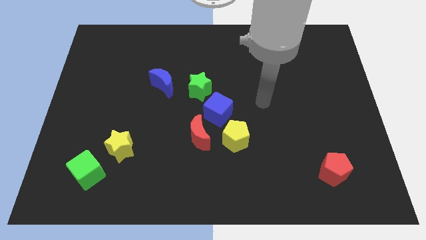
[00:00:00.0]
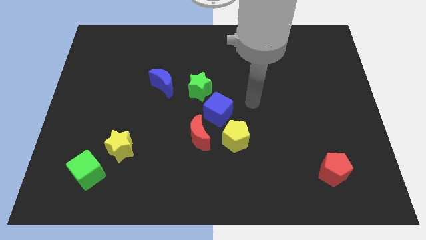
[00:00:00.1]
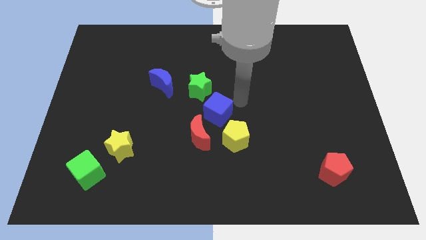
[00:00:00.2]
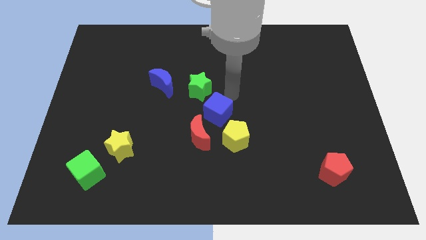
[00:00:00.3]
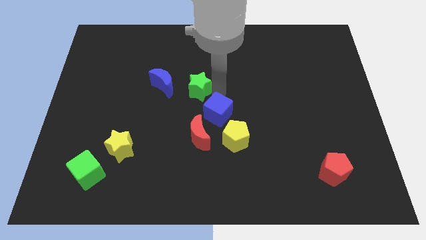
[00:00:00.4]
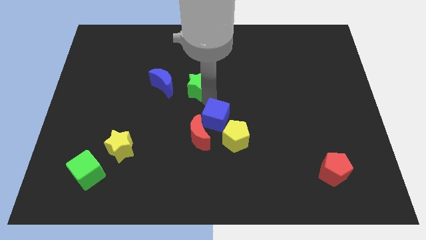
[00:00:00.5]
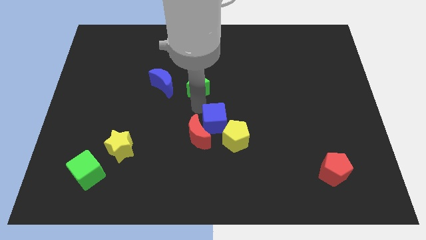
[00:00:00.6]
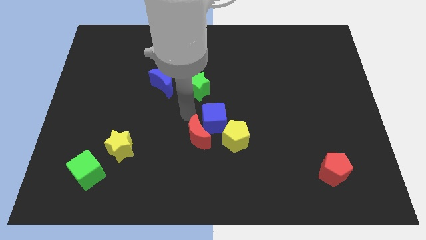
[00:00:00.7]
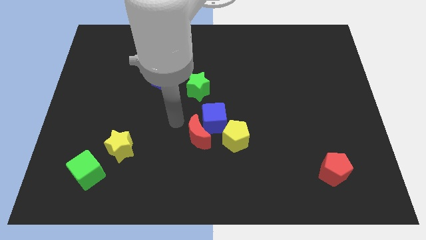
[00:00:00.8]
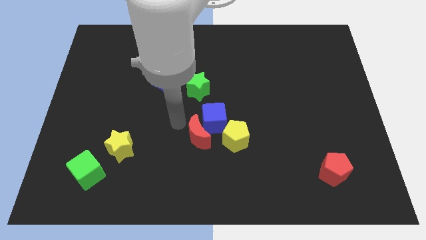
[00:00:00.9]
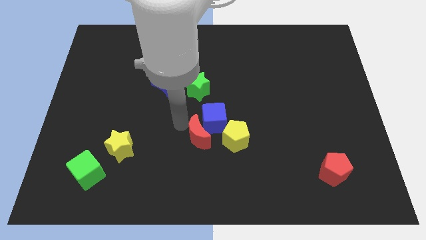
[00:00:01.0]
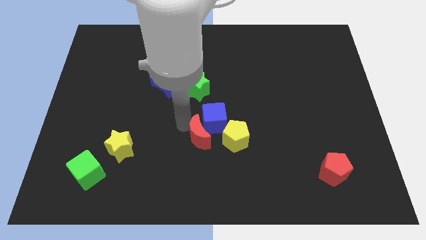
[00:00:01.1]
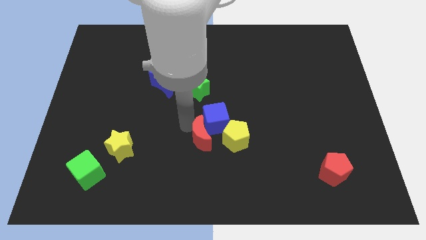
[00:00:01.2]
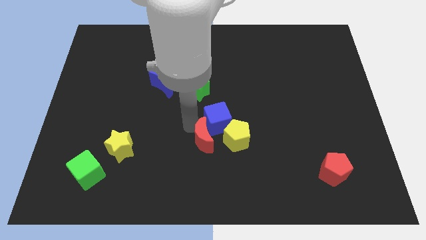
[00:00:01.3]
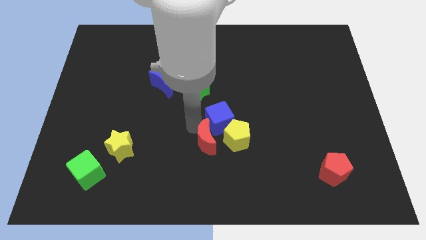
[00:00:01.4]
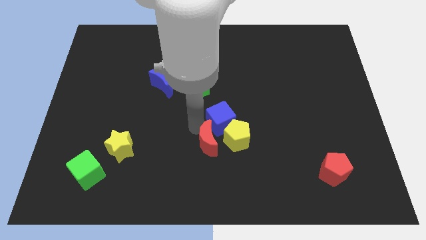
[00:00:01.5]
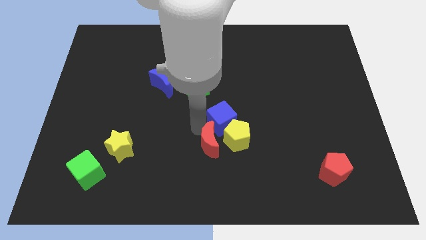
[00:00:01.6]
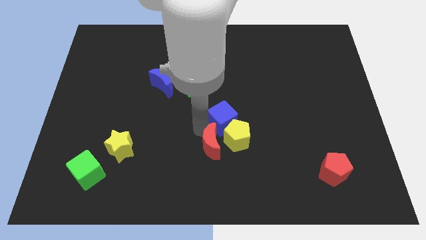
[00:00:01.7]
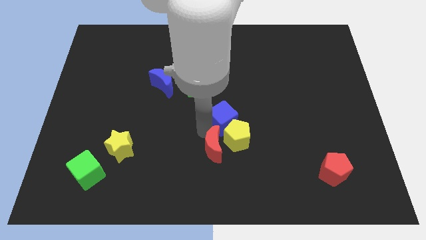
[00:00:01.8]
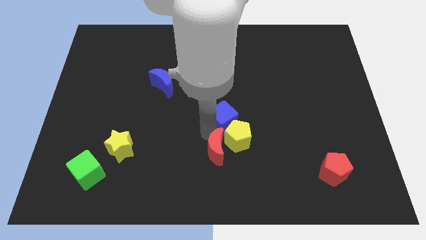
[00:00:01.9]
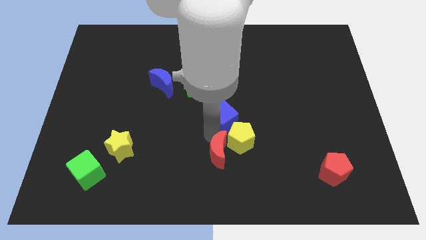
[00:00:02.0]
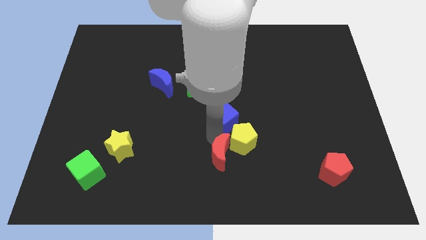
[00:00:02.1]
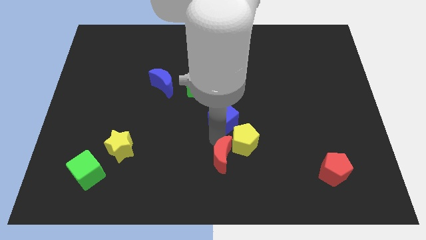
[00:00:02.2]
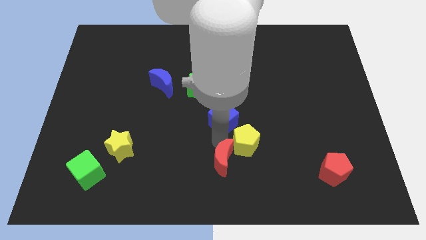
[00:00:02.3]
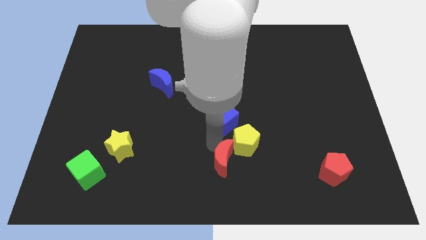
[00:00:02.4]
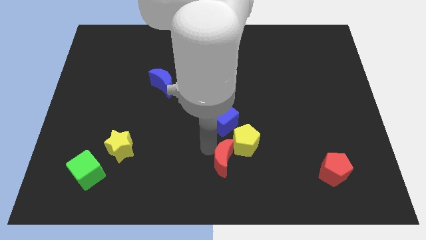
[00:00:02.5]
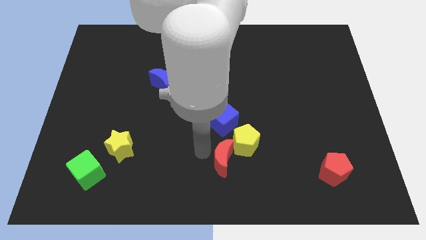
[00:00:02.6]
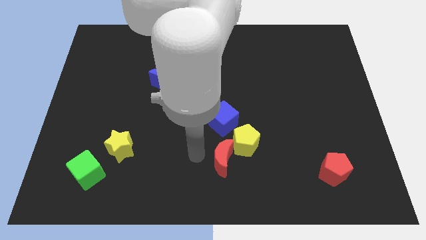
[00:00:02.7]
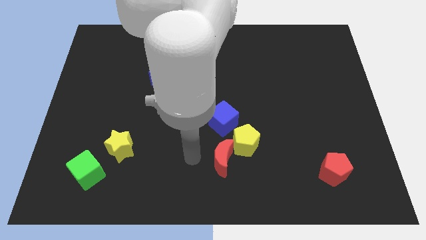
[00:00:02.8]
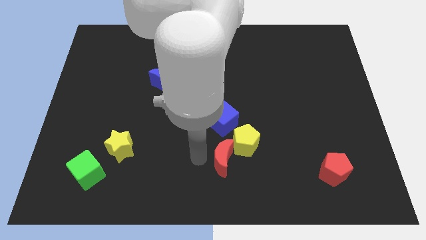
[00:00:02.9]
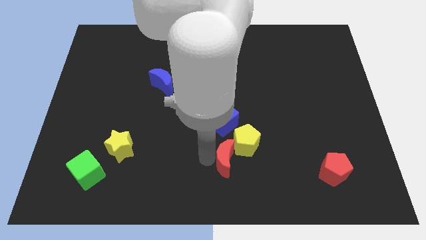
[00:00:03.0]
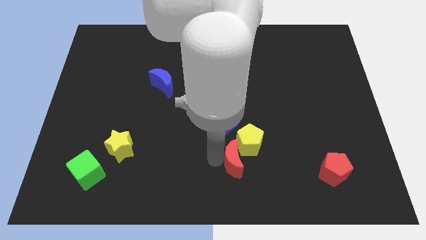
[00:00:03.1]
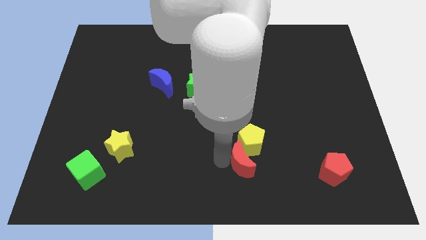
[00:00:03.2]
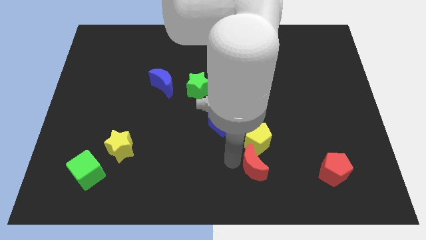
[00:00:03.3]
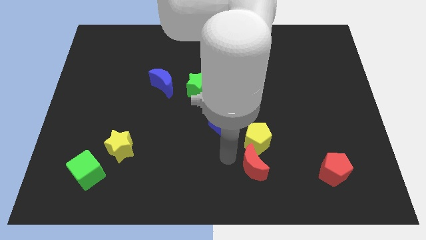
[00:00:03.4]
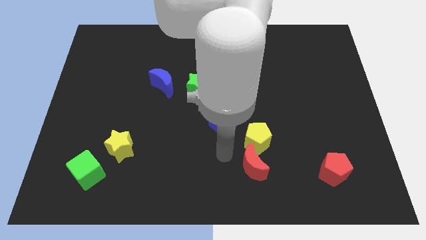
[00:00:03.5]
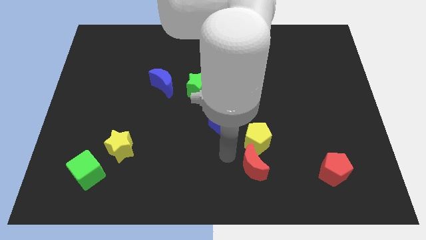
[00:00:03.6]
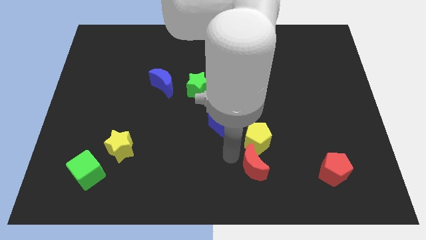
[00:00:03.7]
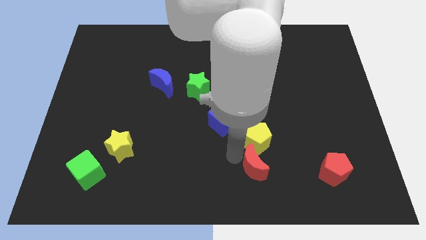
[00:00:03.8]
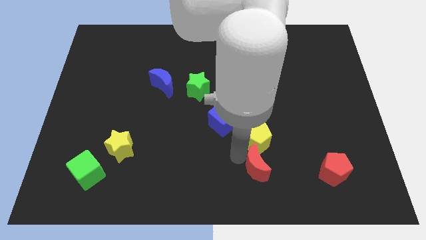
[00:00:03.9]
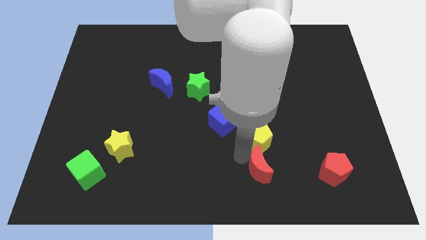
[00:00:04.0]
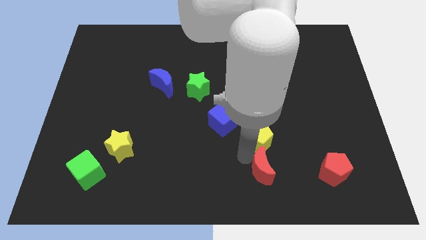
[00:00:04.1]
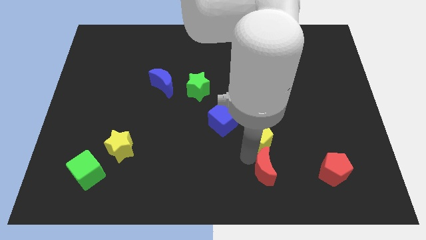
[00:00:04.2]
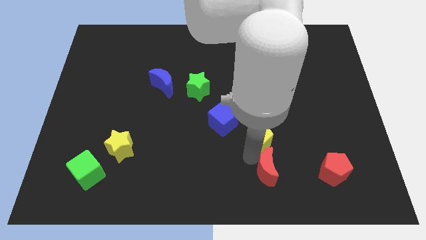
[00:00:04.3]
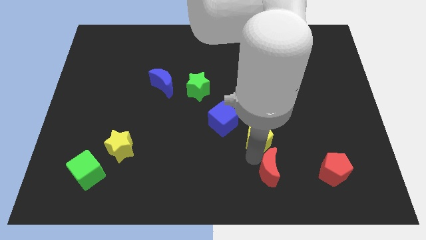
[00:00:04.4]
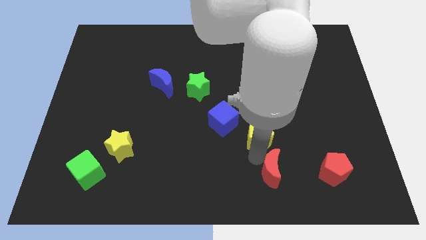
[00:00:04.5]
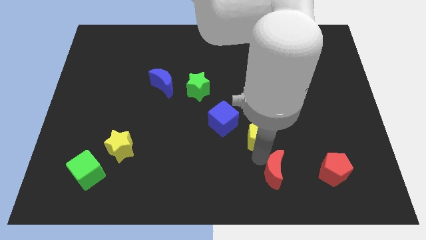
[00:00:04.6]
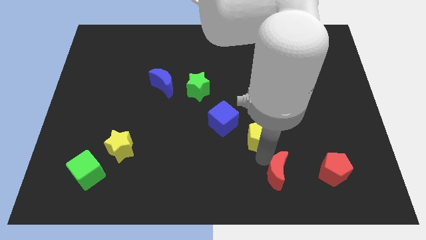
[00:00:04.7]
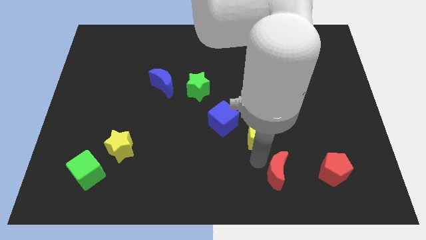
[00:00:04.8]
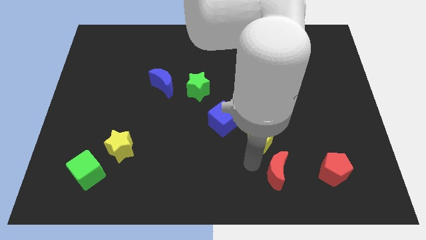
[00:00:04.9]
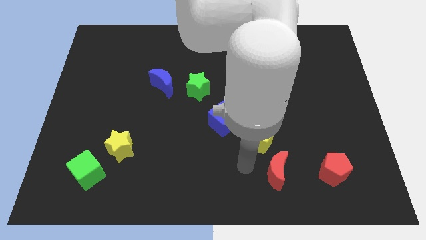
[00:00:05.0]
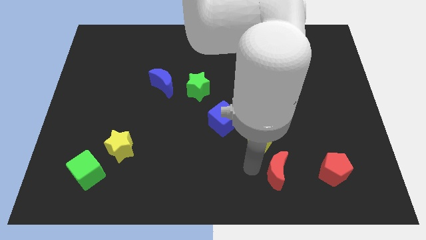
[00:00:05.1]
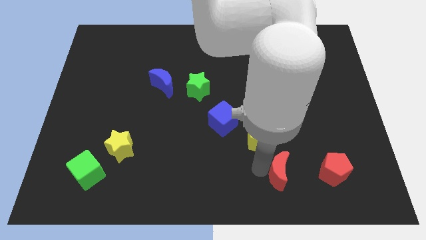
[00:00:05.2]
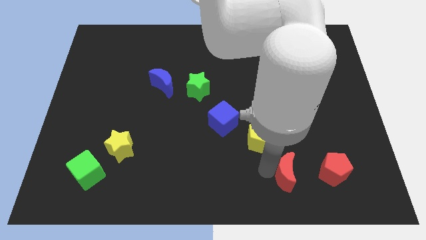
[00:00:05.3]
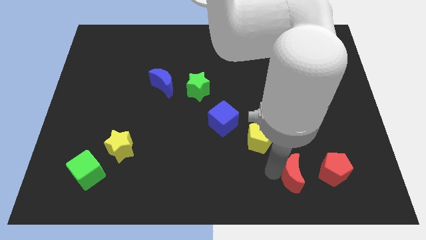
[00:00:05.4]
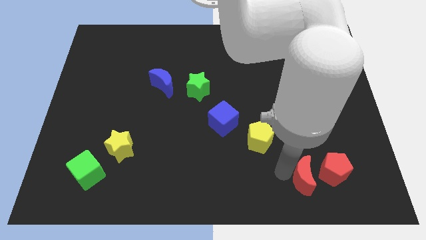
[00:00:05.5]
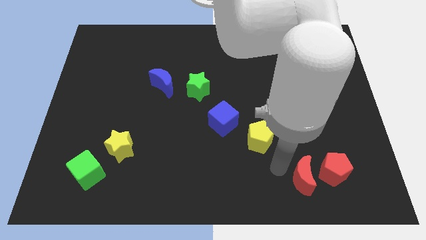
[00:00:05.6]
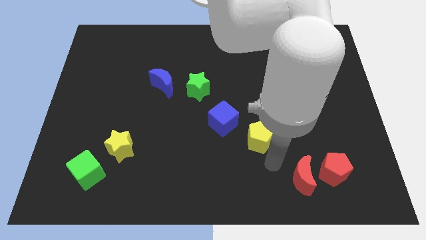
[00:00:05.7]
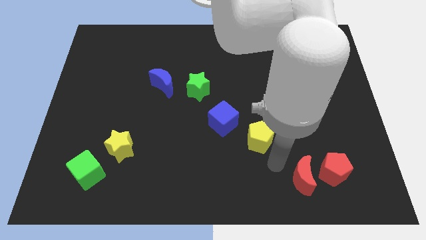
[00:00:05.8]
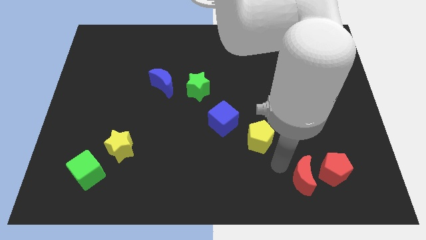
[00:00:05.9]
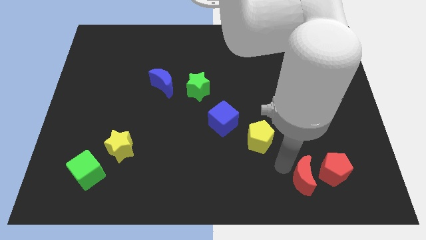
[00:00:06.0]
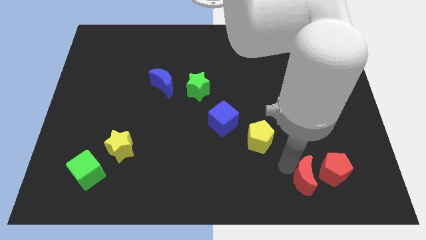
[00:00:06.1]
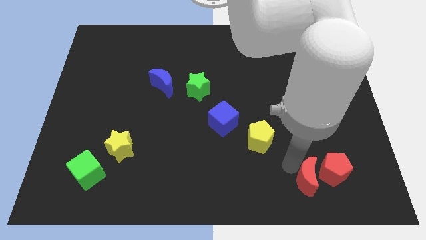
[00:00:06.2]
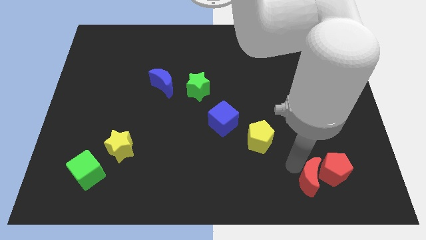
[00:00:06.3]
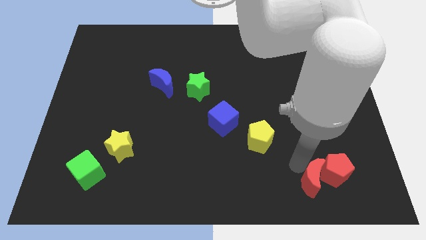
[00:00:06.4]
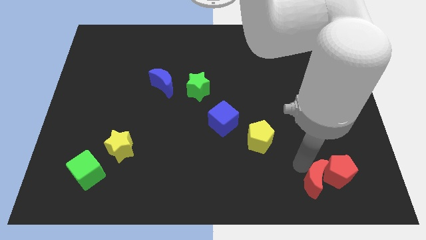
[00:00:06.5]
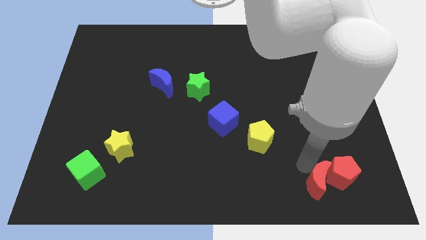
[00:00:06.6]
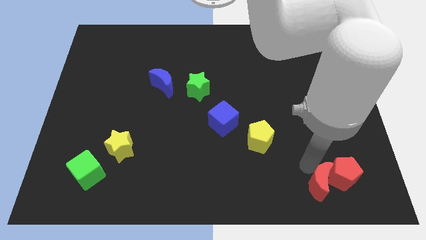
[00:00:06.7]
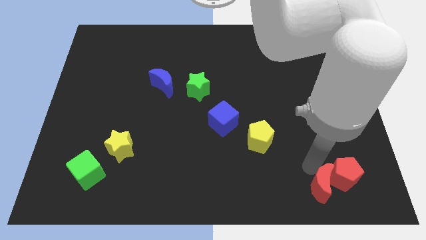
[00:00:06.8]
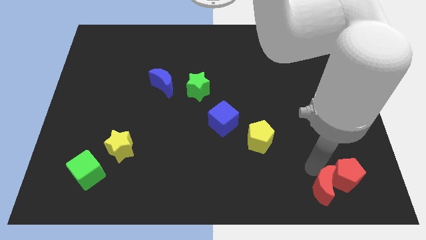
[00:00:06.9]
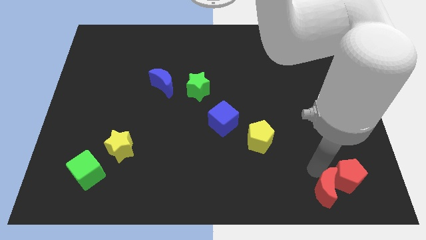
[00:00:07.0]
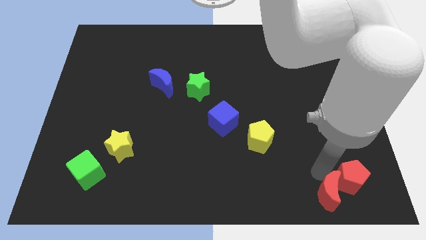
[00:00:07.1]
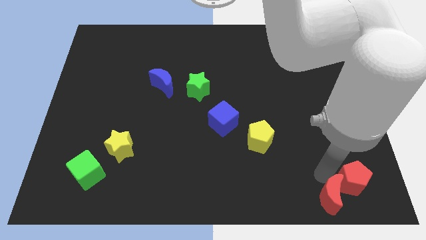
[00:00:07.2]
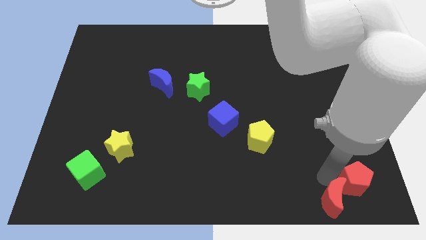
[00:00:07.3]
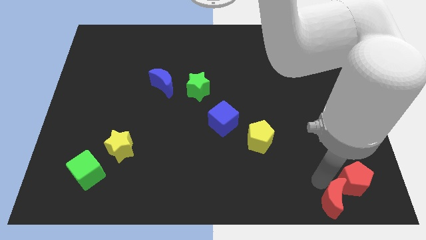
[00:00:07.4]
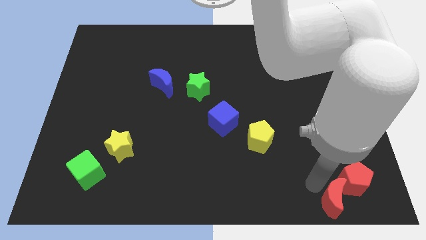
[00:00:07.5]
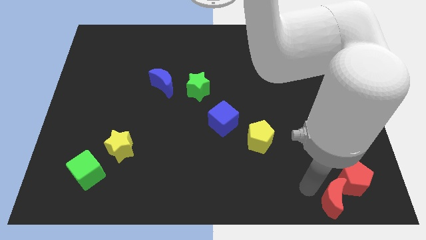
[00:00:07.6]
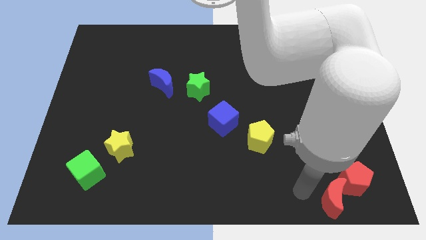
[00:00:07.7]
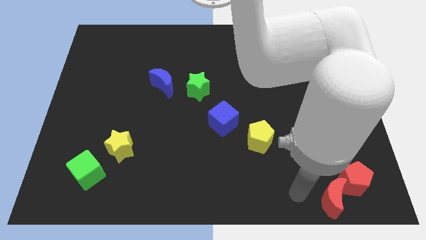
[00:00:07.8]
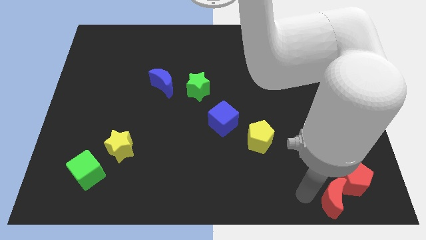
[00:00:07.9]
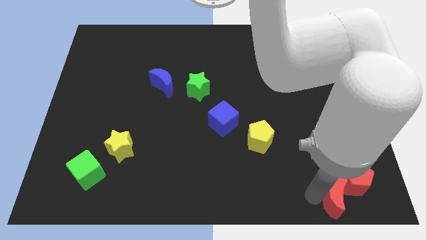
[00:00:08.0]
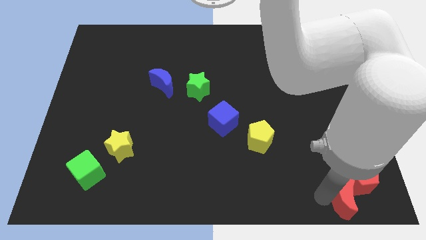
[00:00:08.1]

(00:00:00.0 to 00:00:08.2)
move the red moon to the bottom right corner
